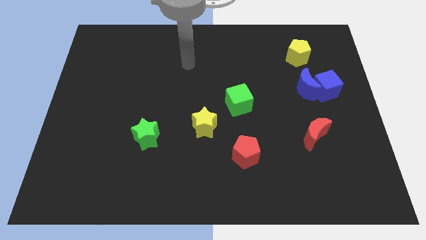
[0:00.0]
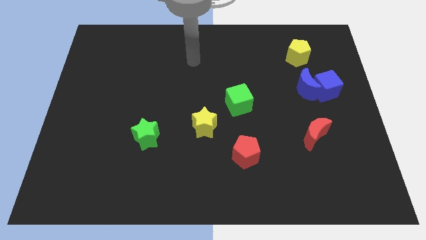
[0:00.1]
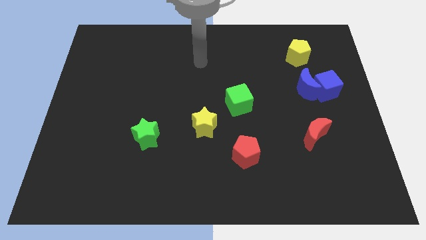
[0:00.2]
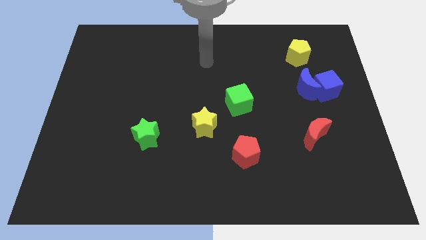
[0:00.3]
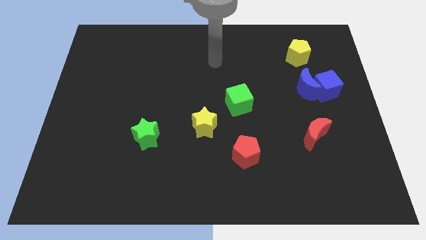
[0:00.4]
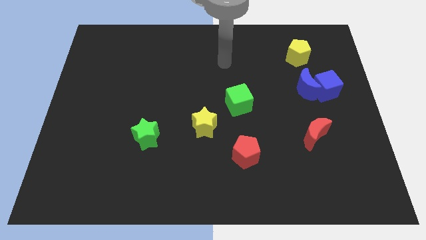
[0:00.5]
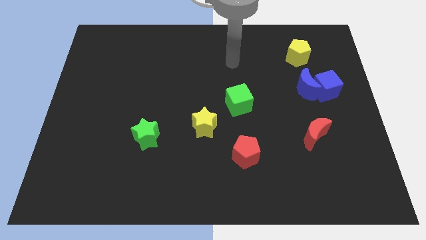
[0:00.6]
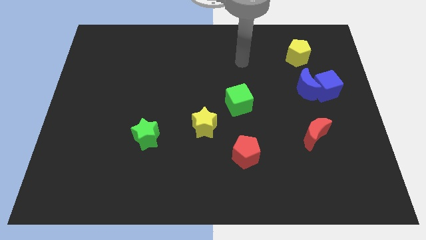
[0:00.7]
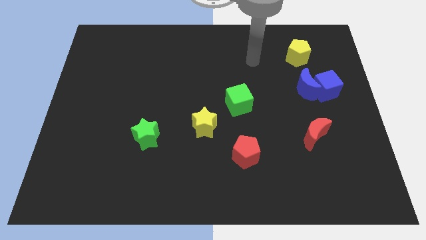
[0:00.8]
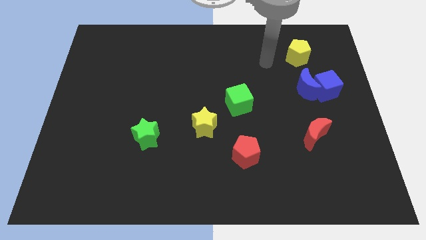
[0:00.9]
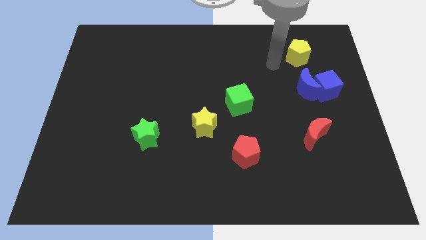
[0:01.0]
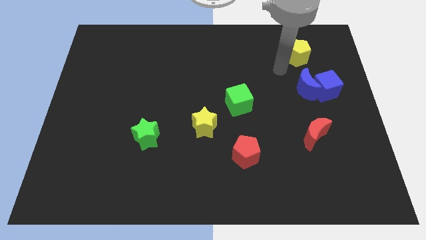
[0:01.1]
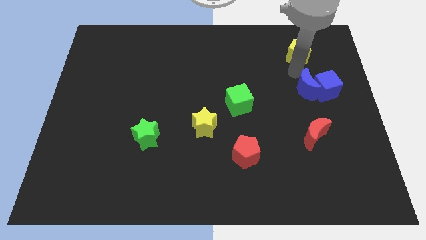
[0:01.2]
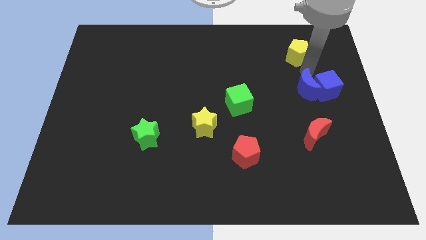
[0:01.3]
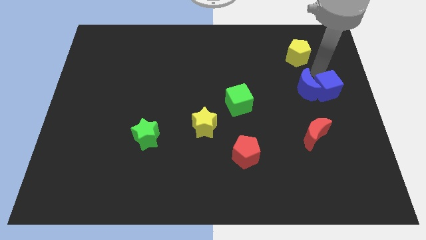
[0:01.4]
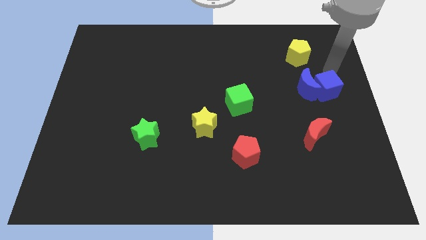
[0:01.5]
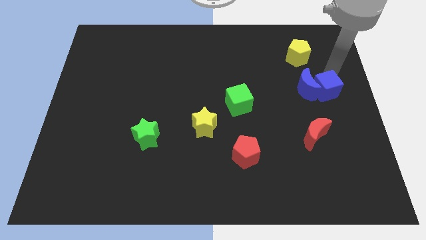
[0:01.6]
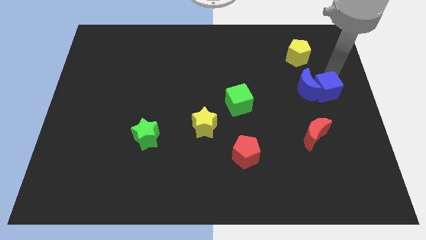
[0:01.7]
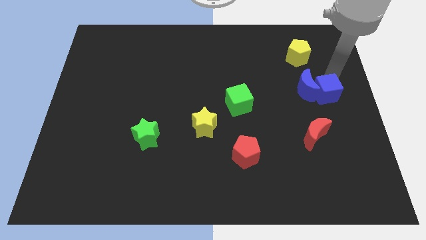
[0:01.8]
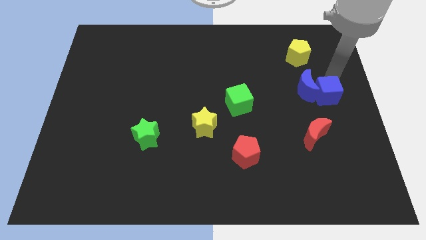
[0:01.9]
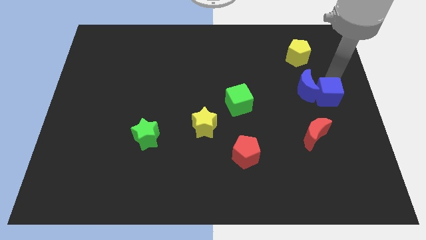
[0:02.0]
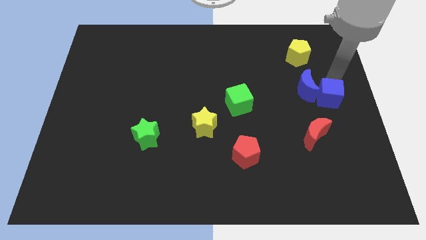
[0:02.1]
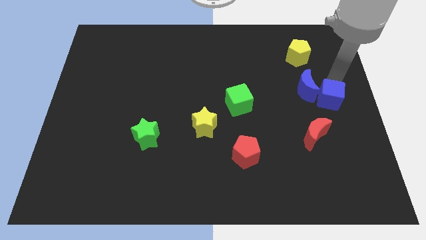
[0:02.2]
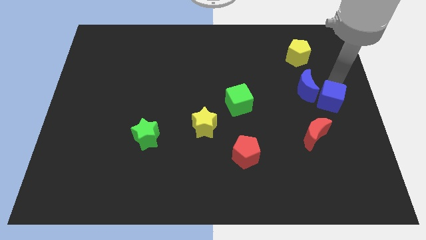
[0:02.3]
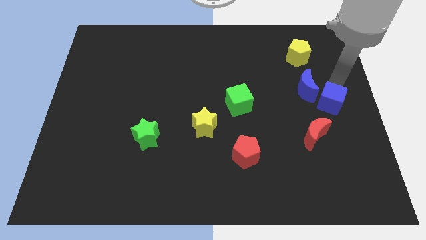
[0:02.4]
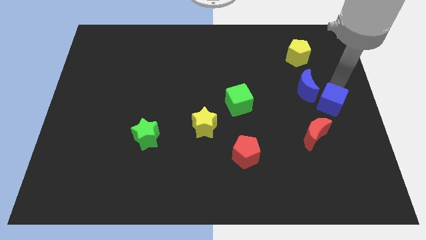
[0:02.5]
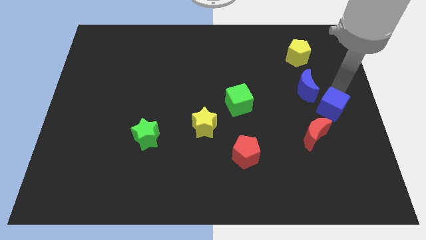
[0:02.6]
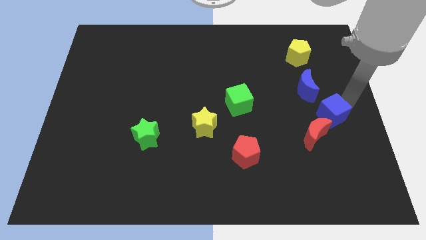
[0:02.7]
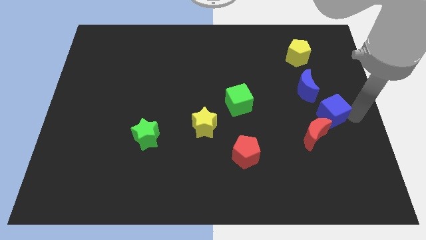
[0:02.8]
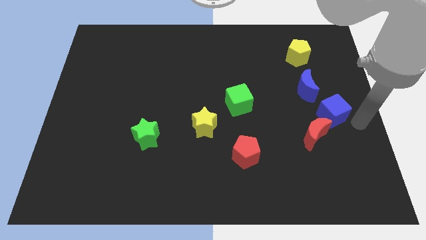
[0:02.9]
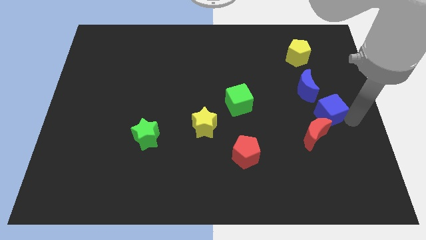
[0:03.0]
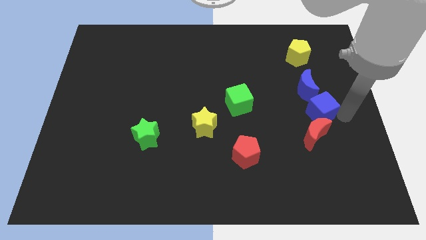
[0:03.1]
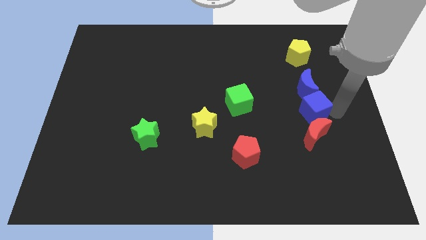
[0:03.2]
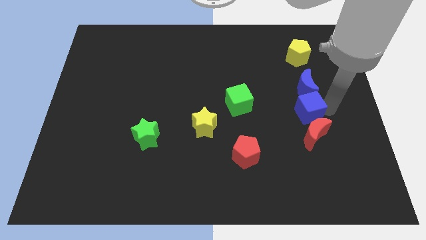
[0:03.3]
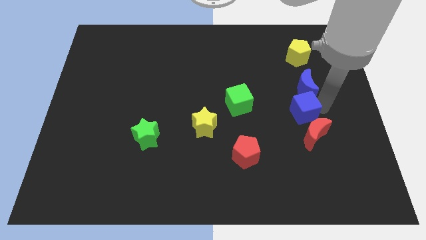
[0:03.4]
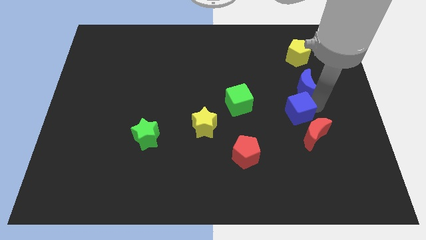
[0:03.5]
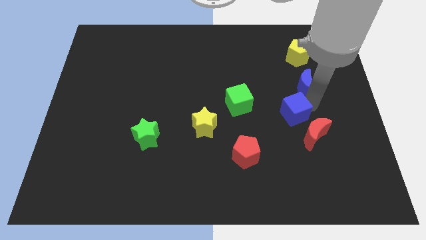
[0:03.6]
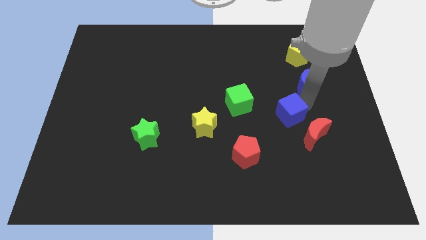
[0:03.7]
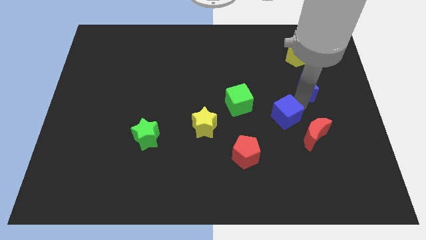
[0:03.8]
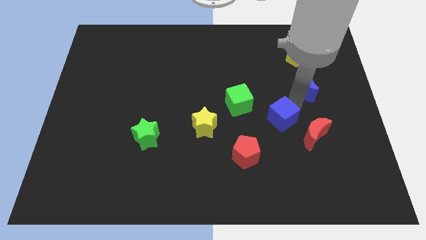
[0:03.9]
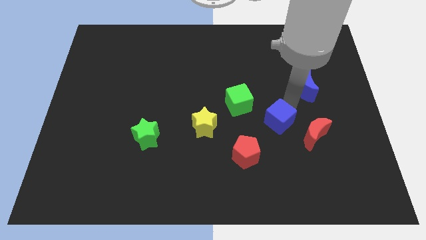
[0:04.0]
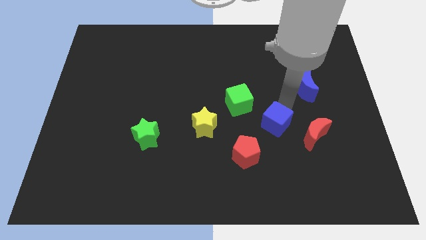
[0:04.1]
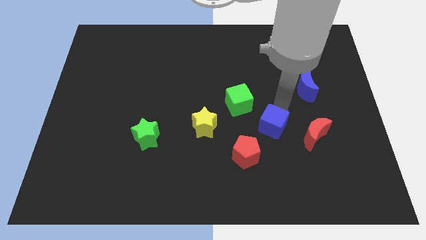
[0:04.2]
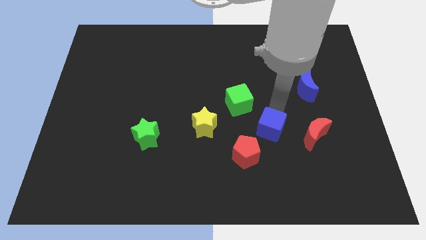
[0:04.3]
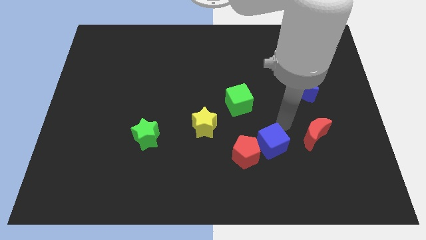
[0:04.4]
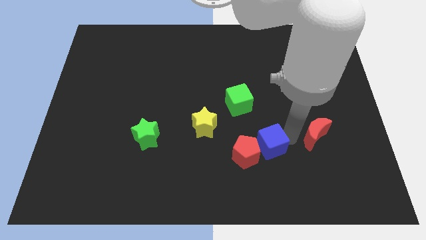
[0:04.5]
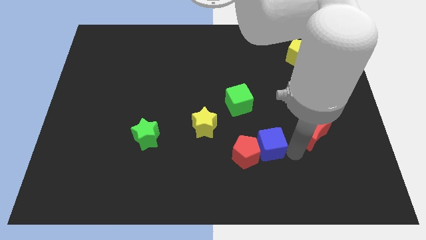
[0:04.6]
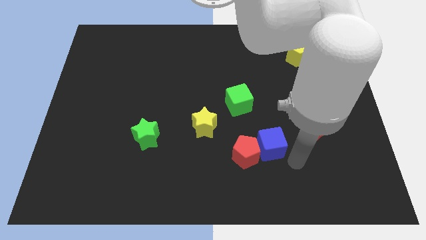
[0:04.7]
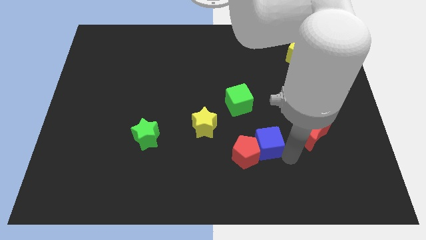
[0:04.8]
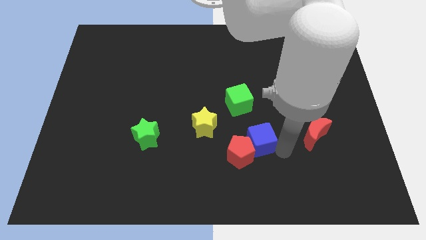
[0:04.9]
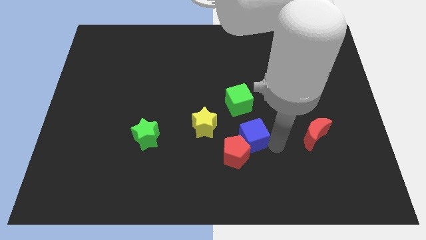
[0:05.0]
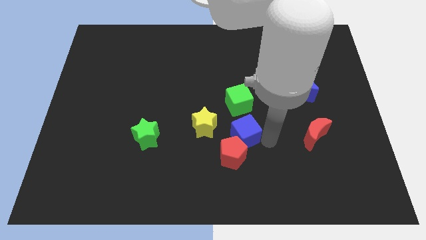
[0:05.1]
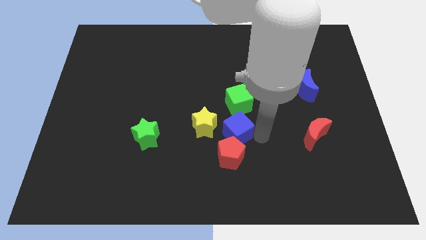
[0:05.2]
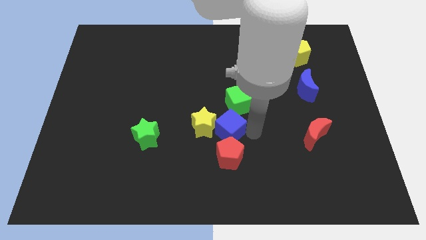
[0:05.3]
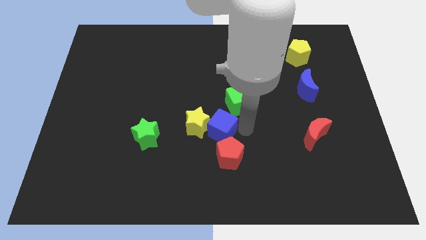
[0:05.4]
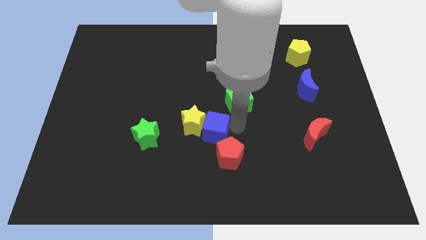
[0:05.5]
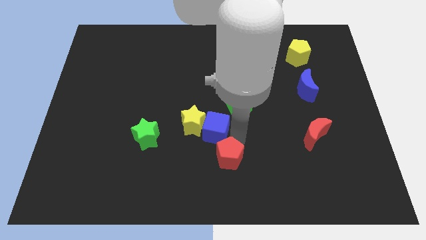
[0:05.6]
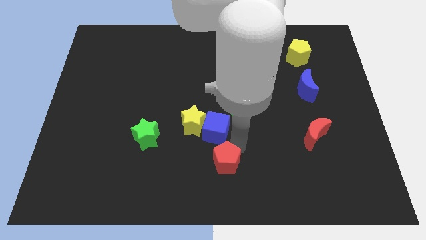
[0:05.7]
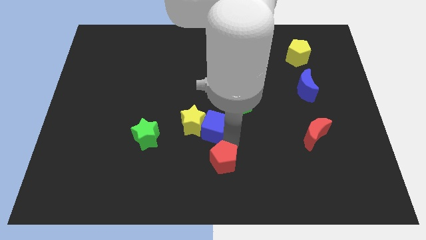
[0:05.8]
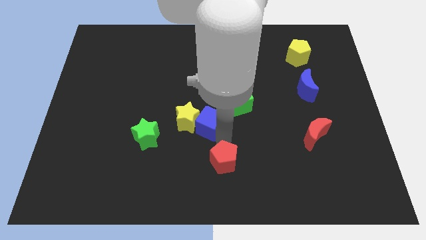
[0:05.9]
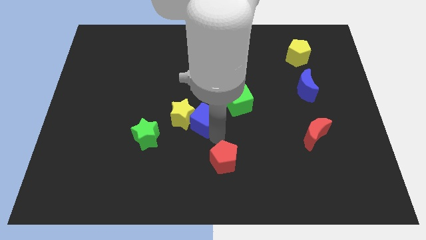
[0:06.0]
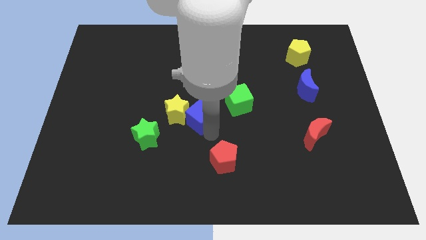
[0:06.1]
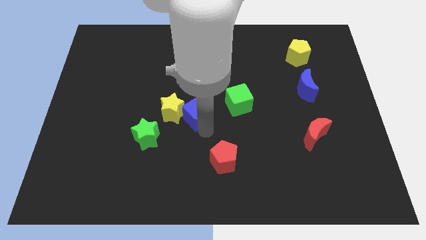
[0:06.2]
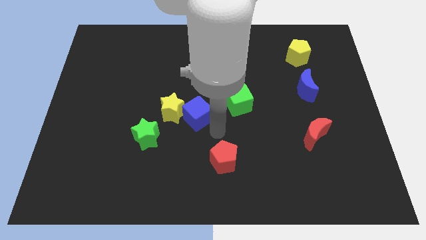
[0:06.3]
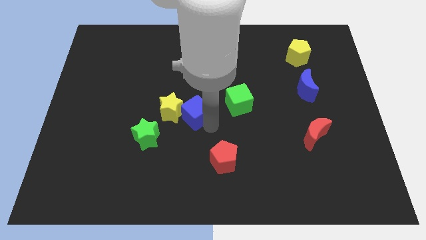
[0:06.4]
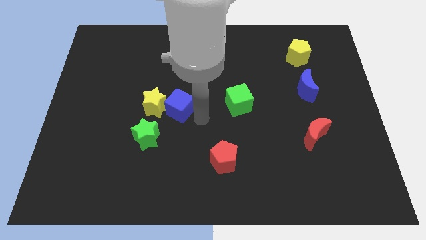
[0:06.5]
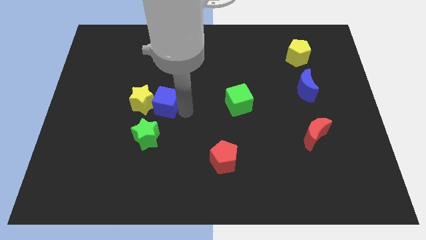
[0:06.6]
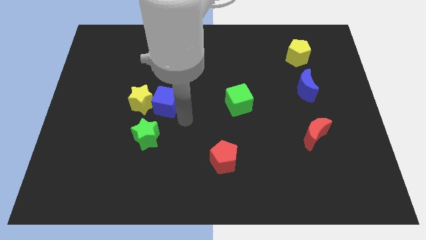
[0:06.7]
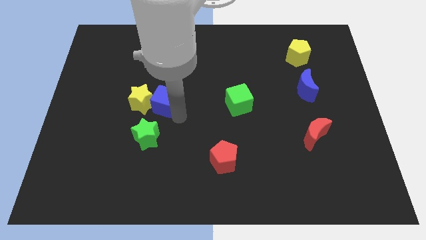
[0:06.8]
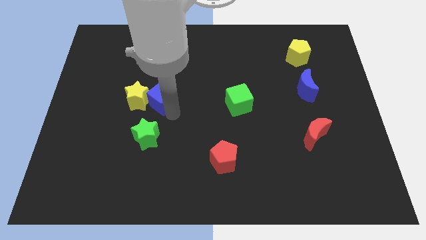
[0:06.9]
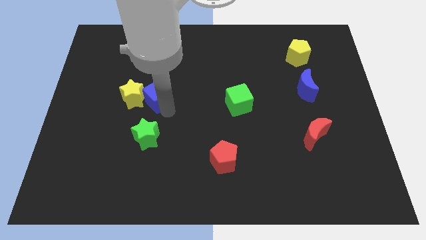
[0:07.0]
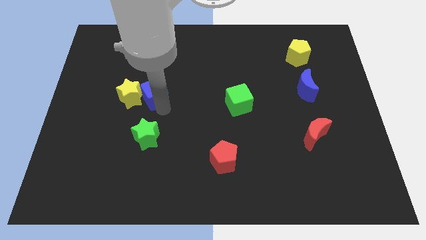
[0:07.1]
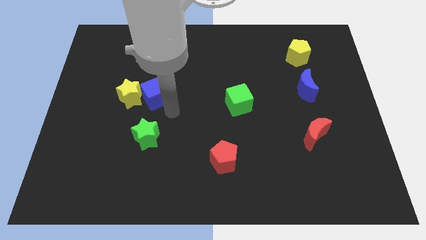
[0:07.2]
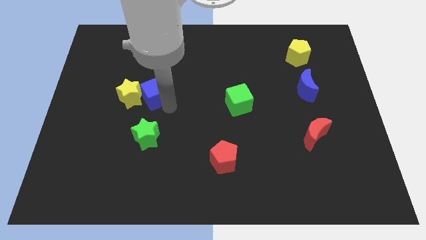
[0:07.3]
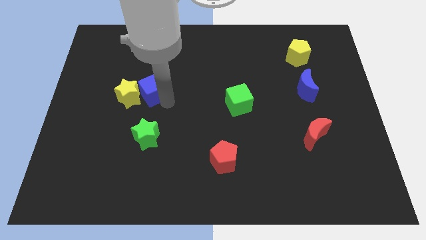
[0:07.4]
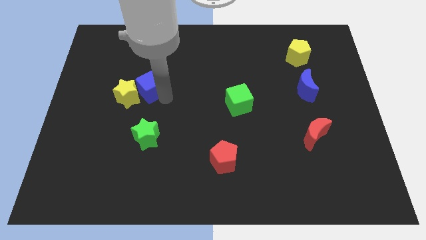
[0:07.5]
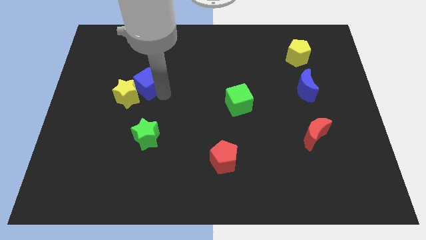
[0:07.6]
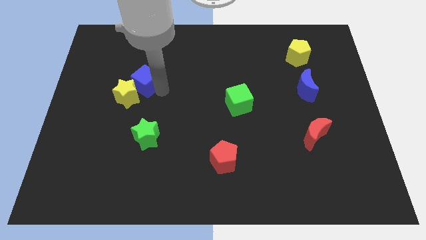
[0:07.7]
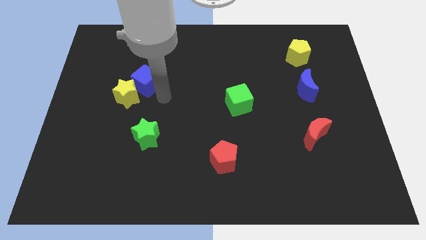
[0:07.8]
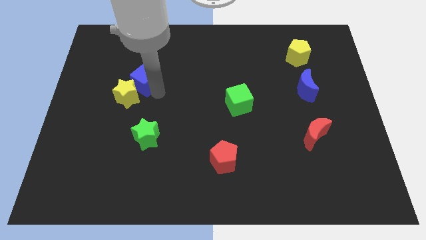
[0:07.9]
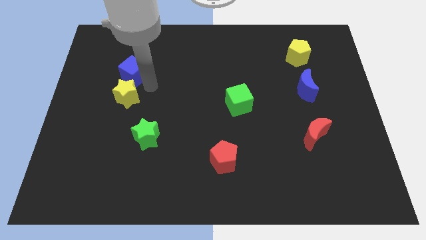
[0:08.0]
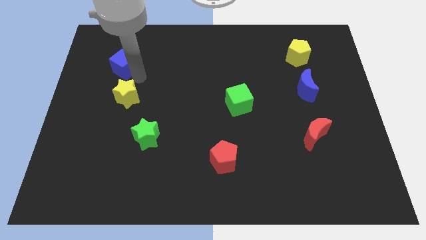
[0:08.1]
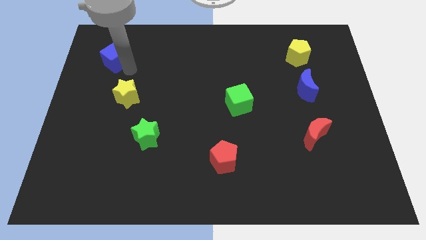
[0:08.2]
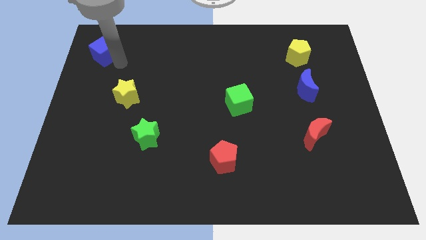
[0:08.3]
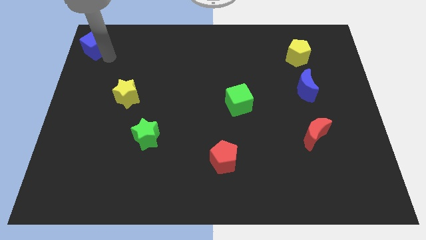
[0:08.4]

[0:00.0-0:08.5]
push the blue cube to the top left corner
